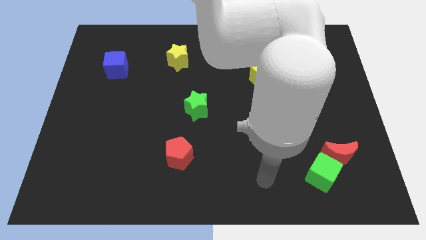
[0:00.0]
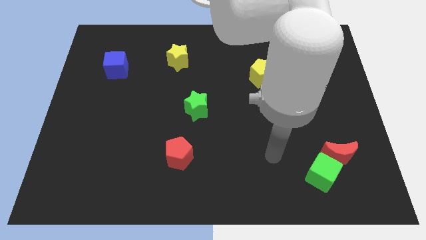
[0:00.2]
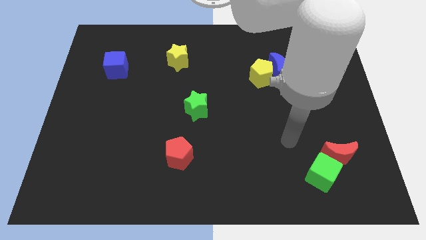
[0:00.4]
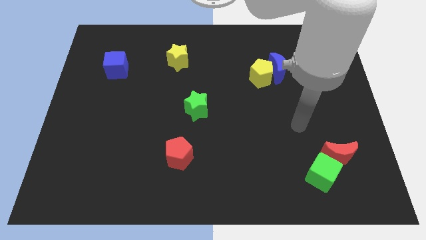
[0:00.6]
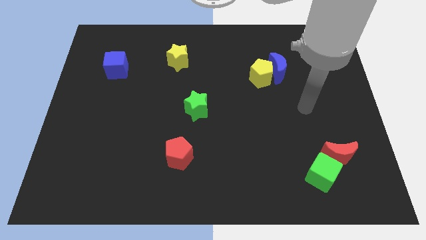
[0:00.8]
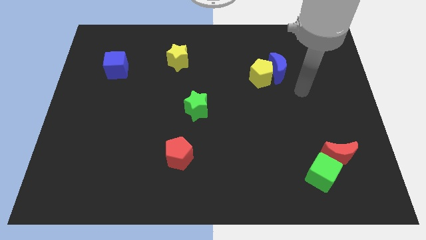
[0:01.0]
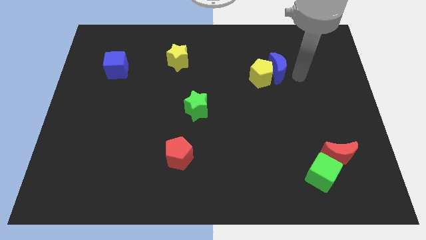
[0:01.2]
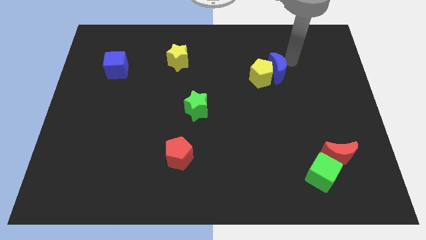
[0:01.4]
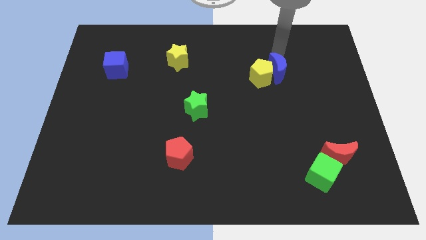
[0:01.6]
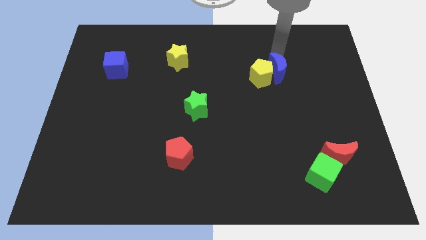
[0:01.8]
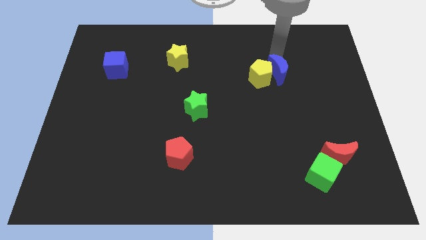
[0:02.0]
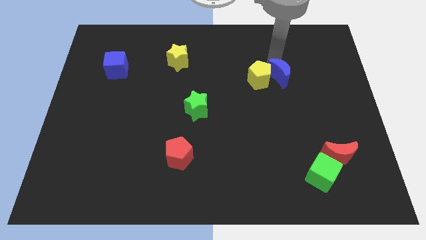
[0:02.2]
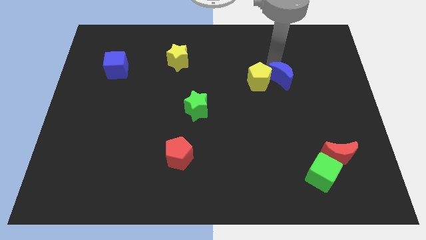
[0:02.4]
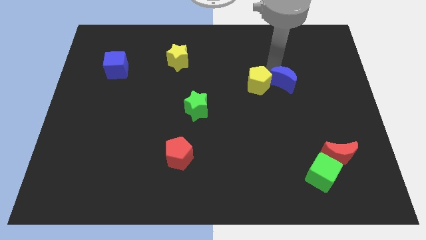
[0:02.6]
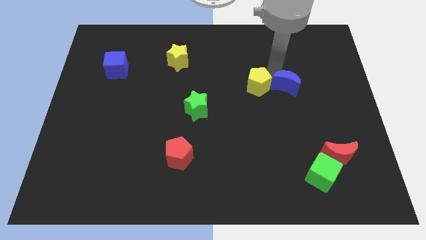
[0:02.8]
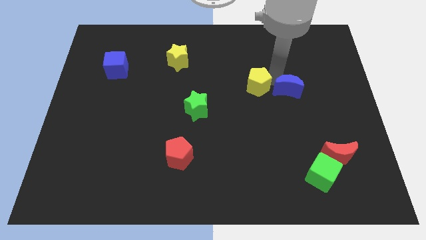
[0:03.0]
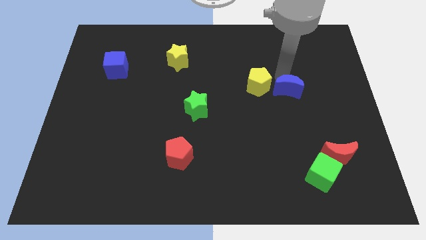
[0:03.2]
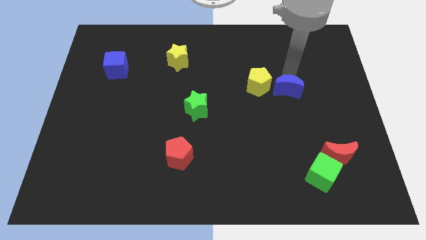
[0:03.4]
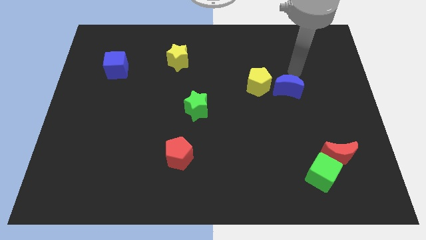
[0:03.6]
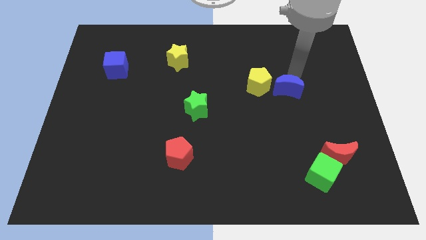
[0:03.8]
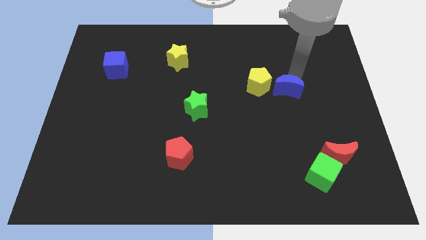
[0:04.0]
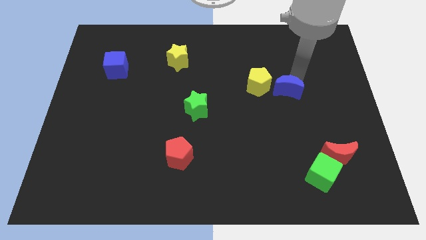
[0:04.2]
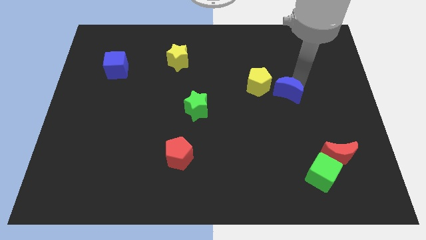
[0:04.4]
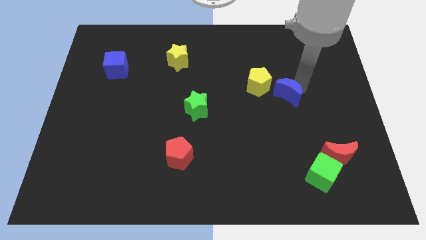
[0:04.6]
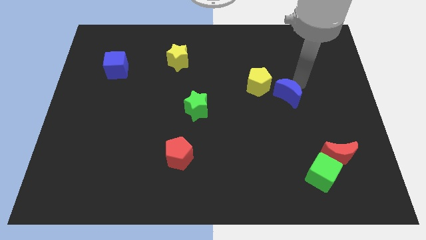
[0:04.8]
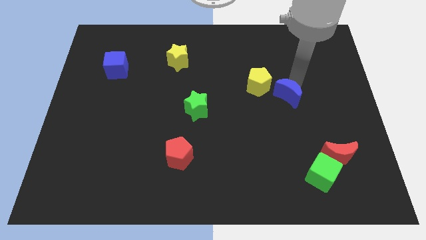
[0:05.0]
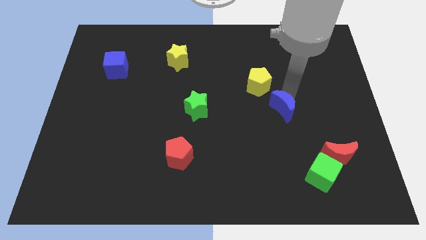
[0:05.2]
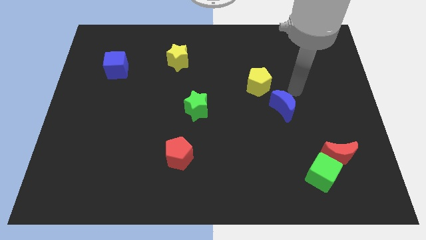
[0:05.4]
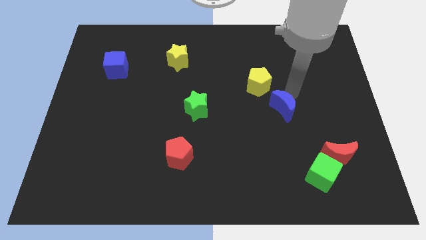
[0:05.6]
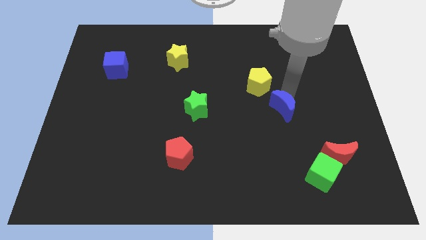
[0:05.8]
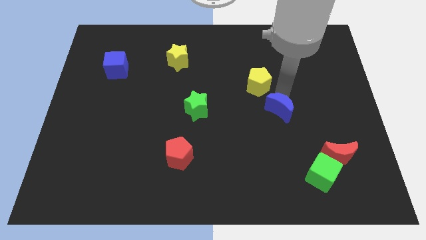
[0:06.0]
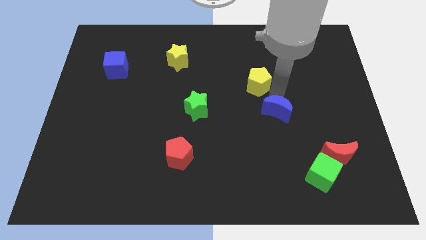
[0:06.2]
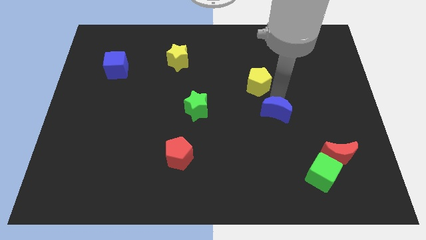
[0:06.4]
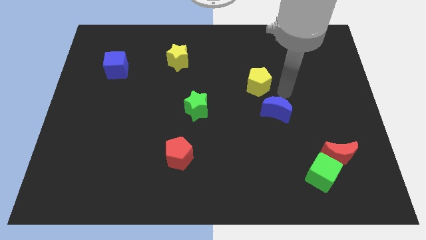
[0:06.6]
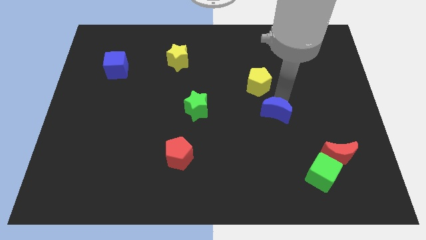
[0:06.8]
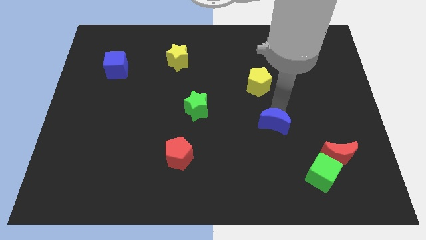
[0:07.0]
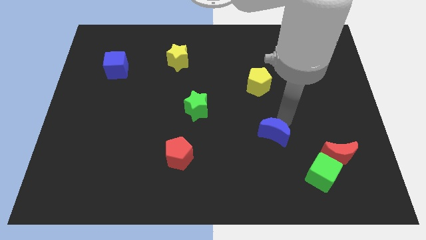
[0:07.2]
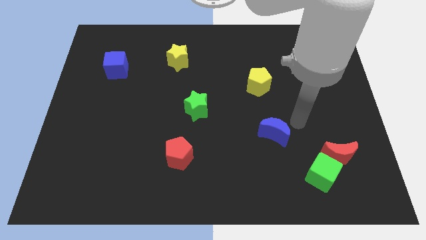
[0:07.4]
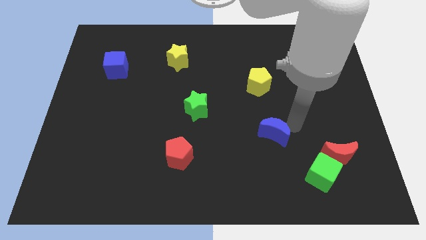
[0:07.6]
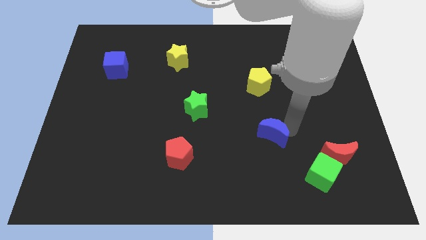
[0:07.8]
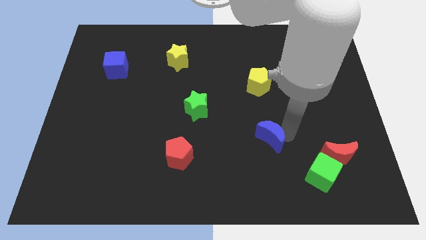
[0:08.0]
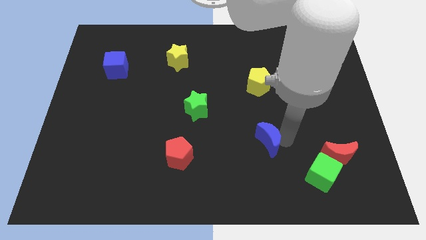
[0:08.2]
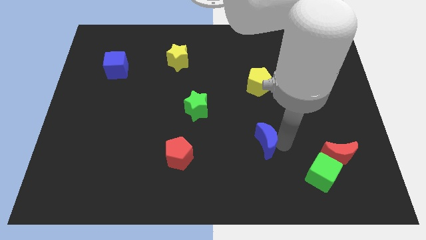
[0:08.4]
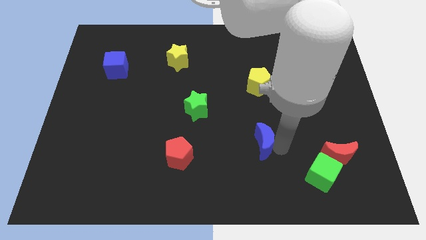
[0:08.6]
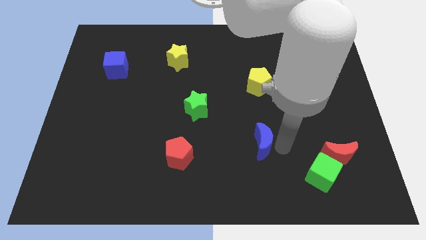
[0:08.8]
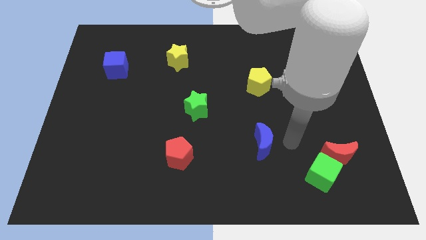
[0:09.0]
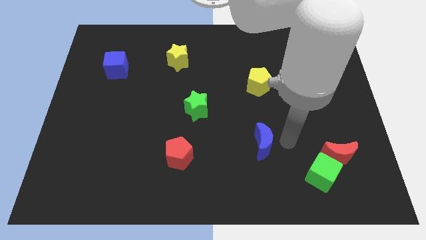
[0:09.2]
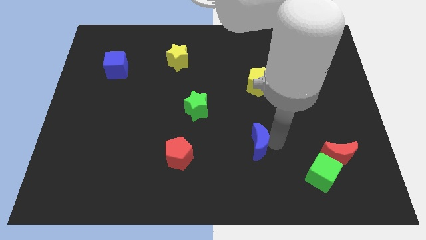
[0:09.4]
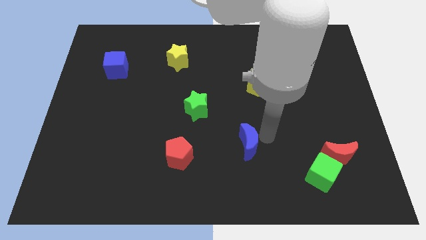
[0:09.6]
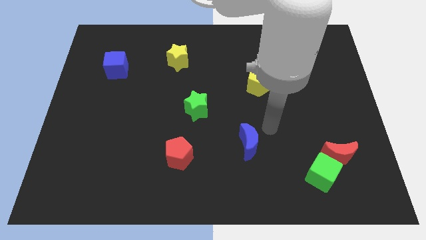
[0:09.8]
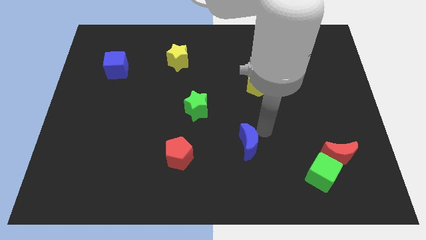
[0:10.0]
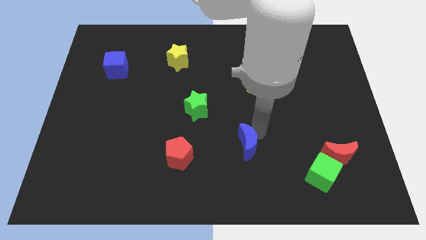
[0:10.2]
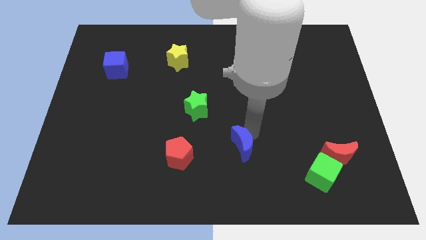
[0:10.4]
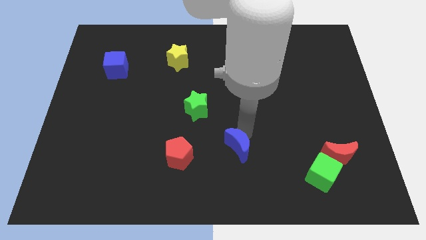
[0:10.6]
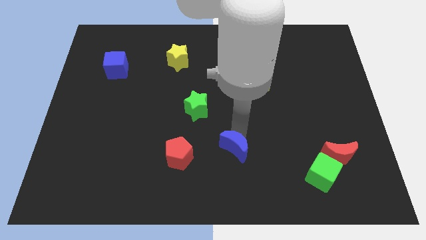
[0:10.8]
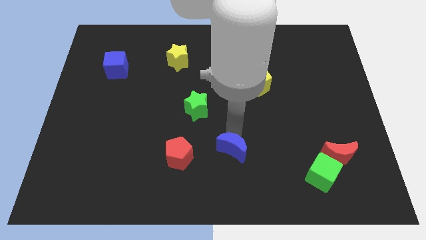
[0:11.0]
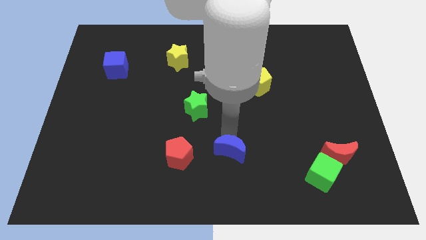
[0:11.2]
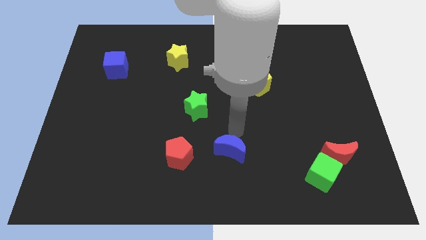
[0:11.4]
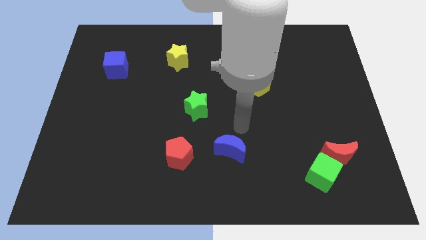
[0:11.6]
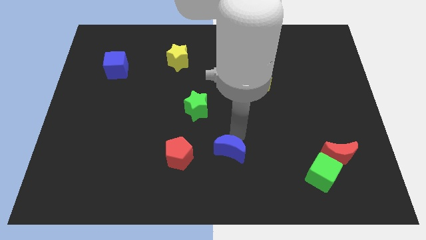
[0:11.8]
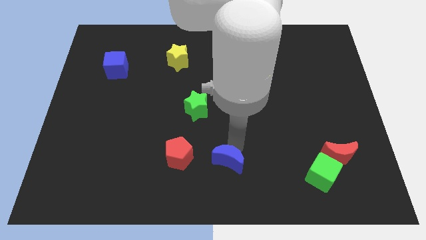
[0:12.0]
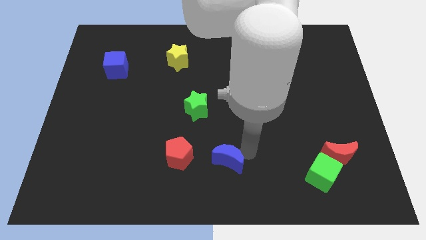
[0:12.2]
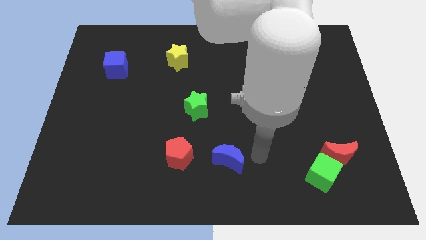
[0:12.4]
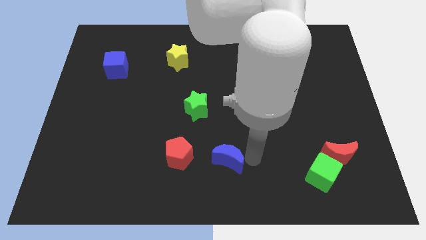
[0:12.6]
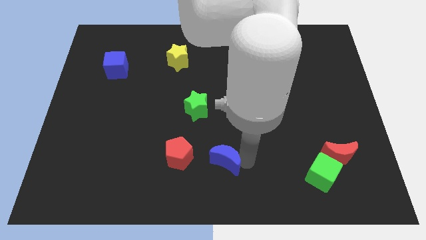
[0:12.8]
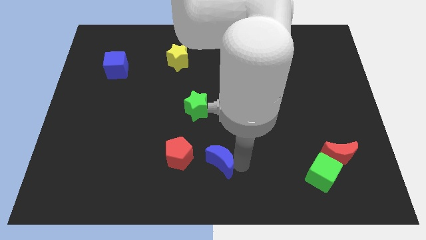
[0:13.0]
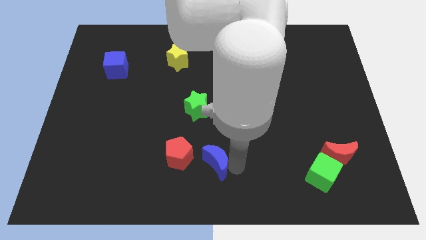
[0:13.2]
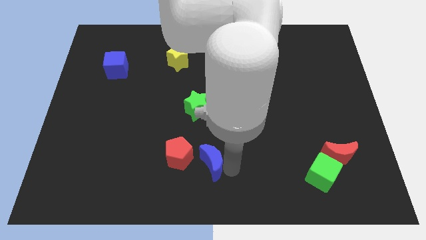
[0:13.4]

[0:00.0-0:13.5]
put the blue moon below the green star

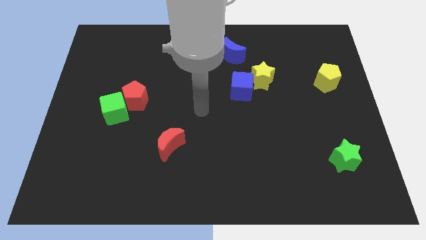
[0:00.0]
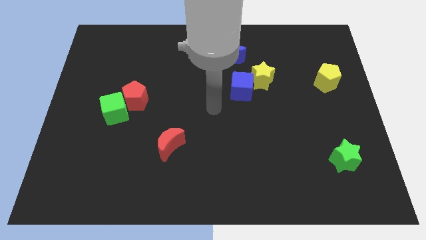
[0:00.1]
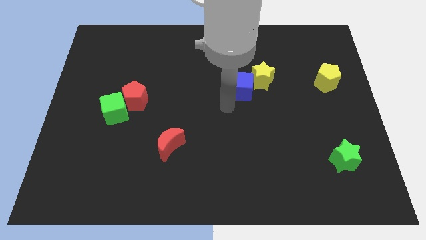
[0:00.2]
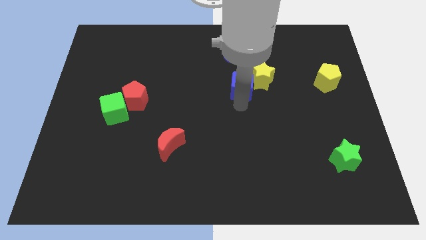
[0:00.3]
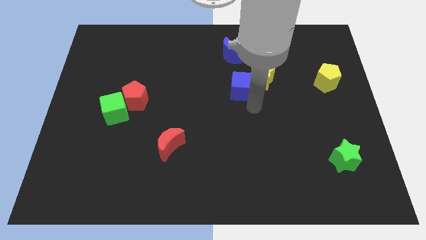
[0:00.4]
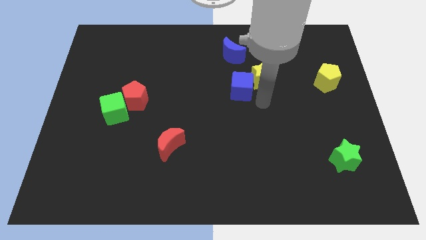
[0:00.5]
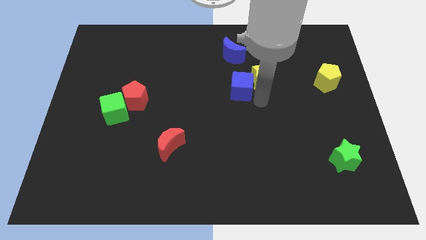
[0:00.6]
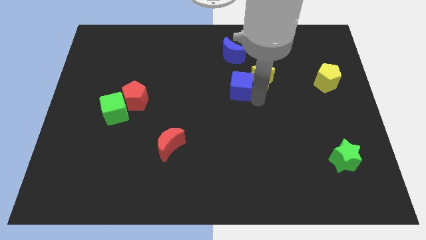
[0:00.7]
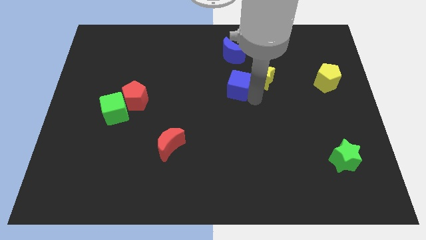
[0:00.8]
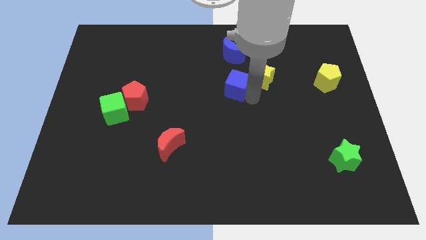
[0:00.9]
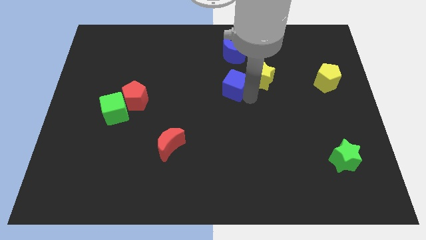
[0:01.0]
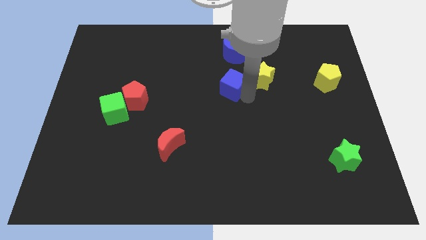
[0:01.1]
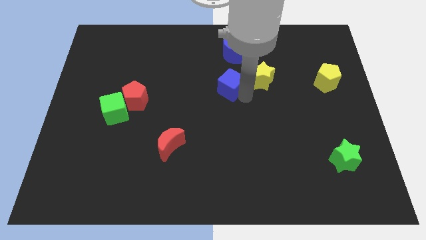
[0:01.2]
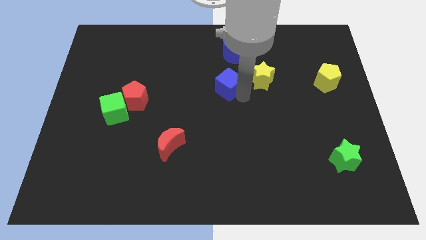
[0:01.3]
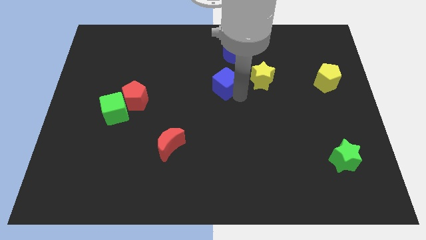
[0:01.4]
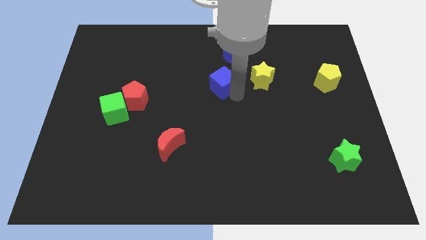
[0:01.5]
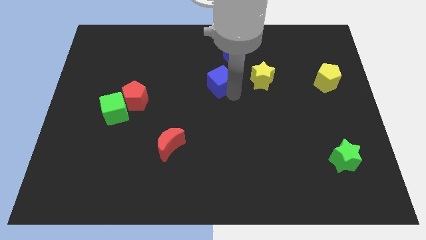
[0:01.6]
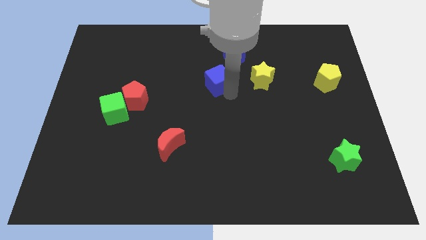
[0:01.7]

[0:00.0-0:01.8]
push the blue cube diagonally down and to the left of the blue moon
